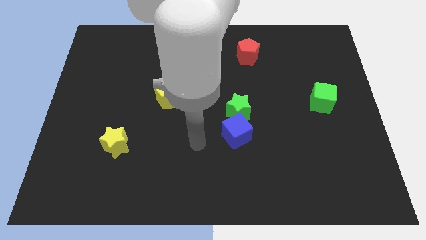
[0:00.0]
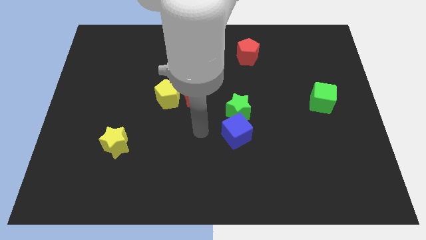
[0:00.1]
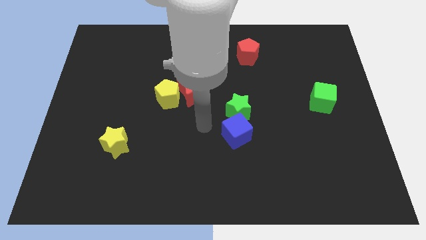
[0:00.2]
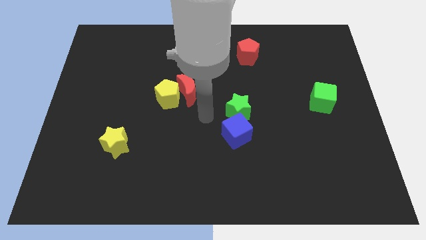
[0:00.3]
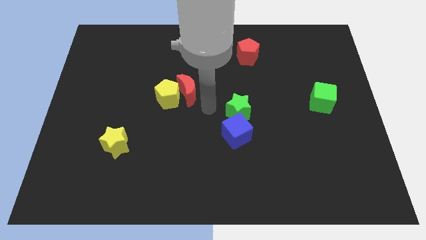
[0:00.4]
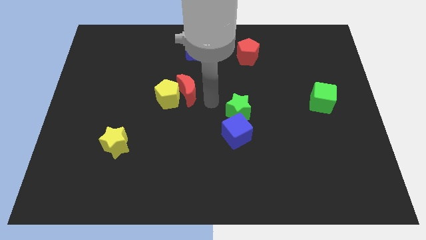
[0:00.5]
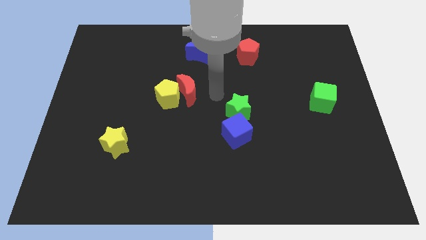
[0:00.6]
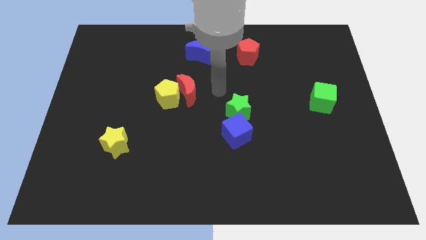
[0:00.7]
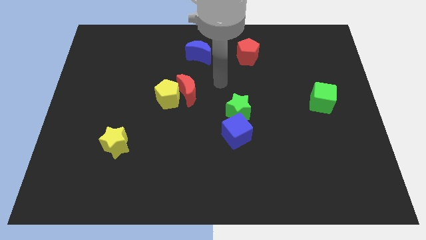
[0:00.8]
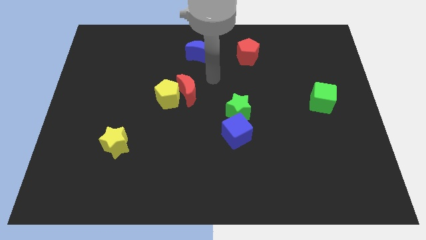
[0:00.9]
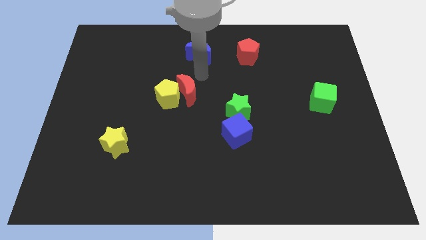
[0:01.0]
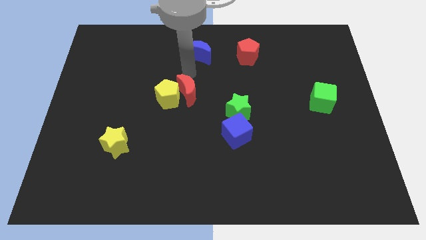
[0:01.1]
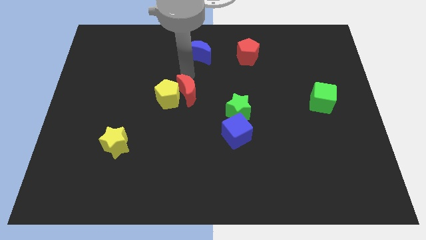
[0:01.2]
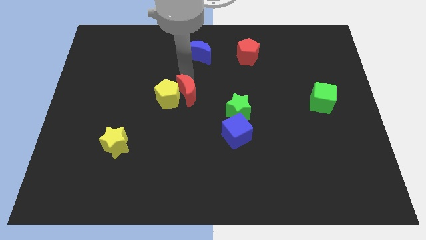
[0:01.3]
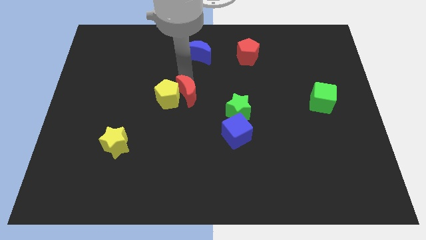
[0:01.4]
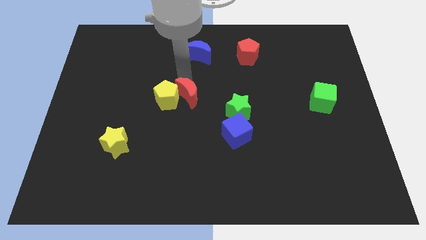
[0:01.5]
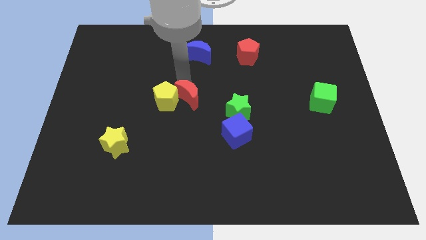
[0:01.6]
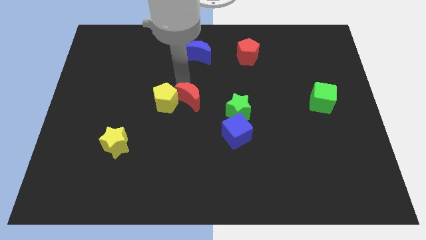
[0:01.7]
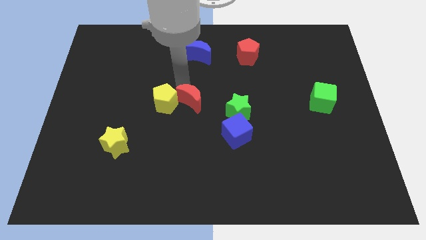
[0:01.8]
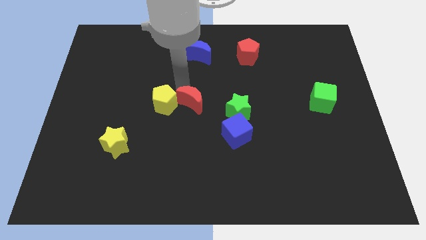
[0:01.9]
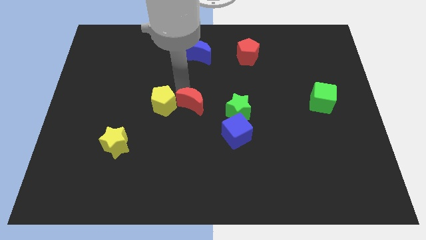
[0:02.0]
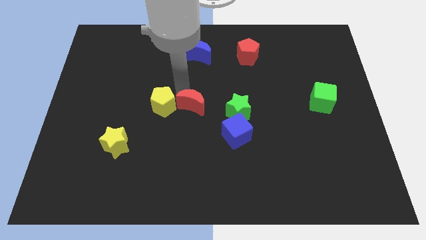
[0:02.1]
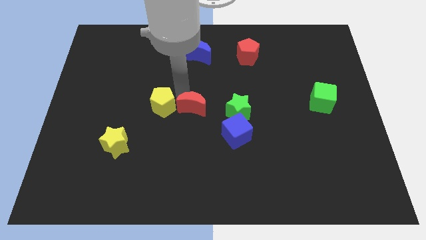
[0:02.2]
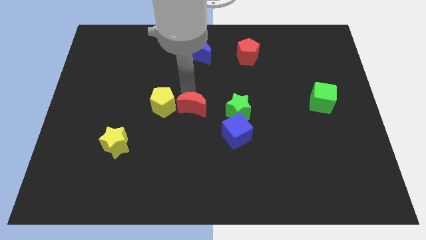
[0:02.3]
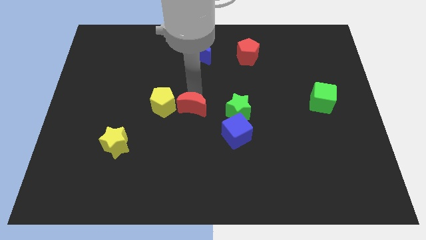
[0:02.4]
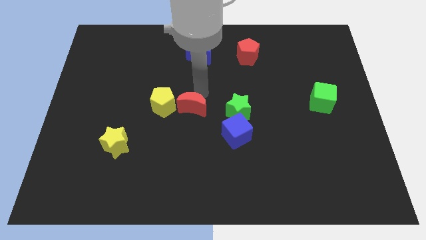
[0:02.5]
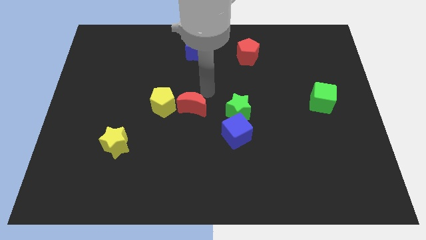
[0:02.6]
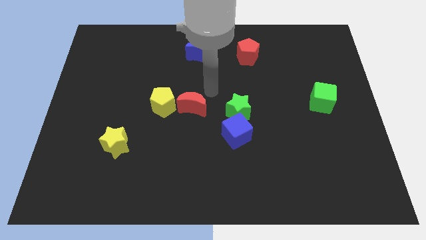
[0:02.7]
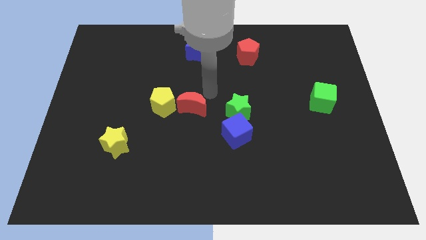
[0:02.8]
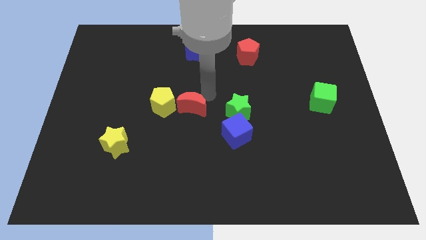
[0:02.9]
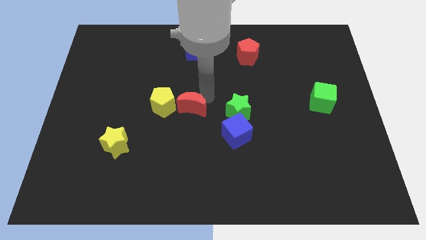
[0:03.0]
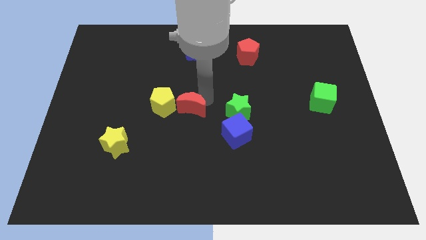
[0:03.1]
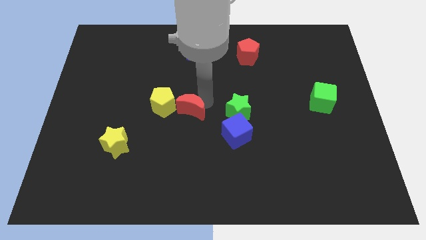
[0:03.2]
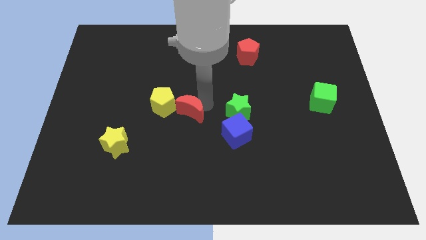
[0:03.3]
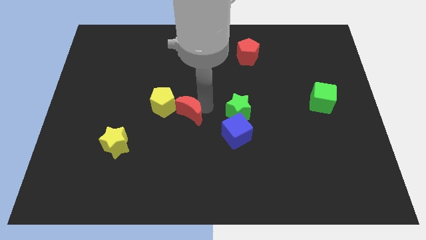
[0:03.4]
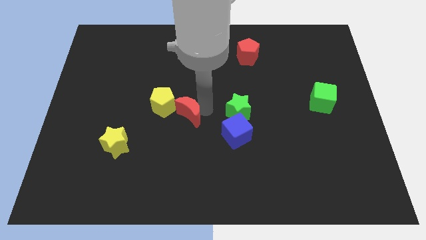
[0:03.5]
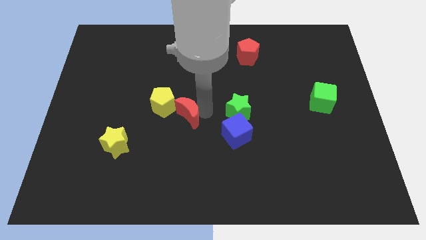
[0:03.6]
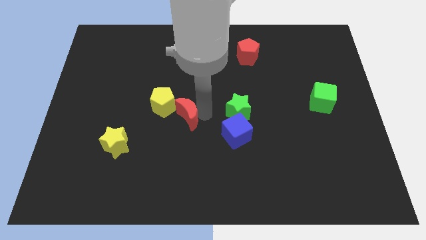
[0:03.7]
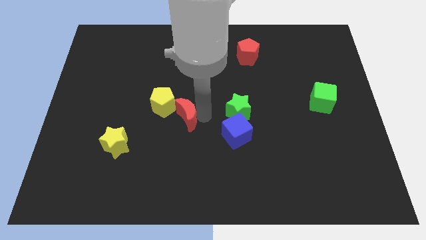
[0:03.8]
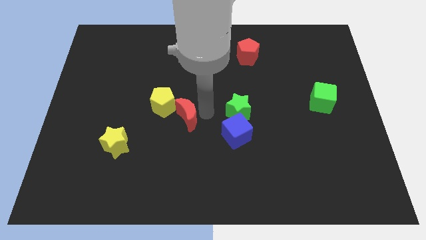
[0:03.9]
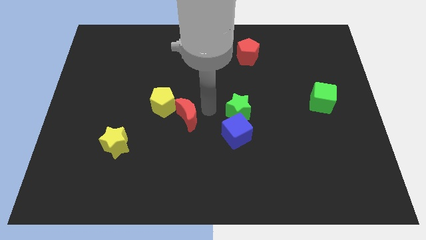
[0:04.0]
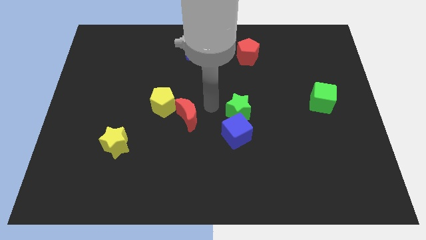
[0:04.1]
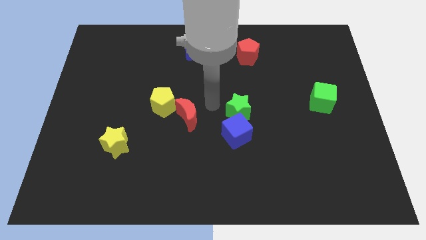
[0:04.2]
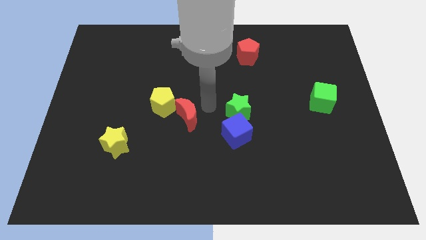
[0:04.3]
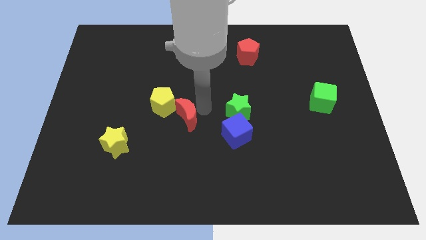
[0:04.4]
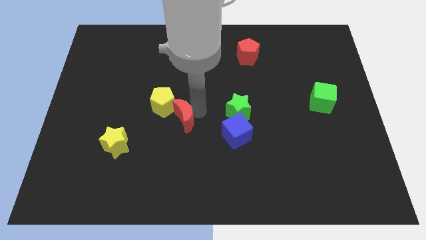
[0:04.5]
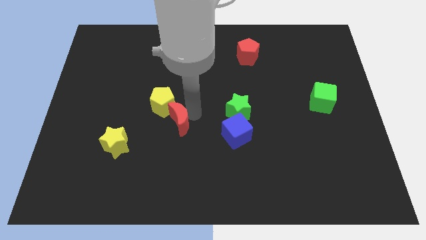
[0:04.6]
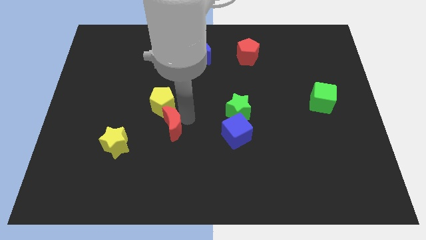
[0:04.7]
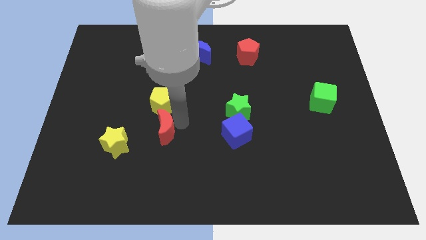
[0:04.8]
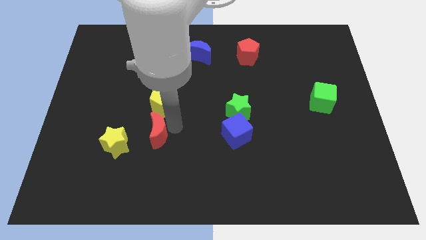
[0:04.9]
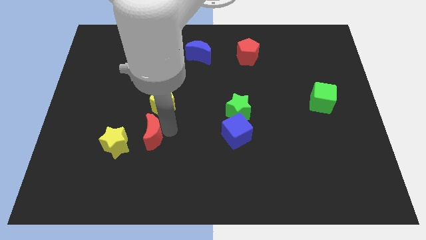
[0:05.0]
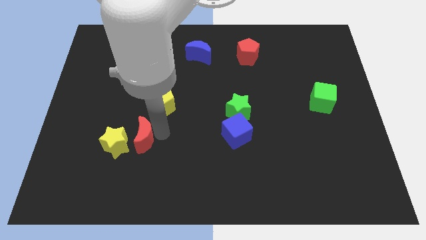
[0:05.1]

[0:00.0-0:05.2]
put the red moon to the yellow star

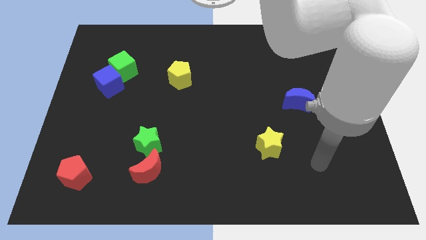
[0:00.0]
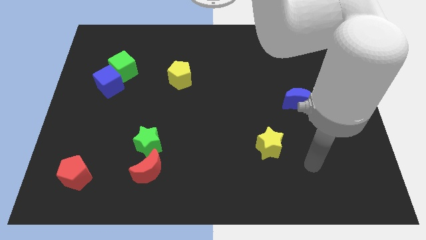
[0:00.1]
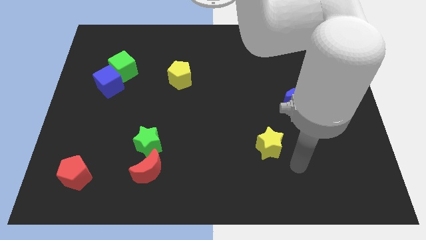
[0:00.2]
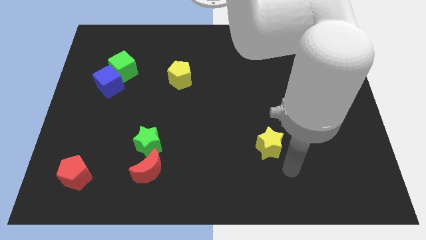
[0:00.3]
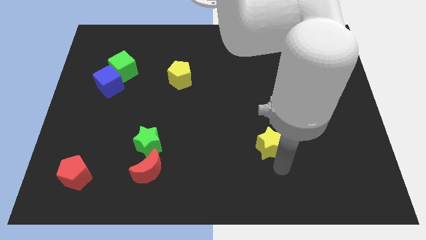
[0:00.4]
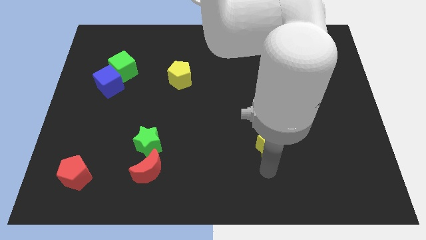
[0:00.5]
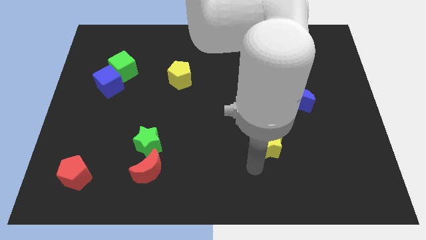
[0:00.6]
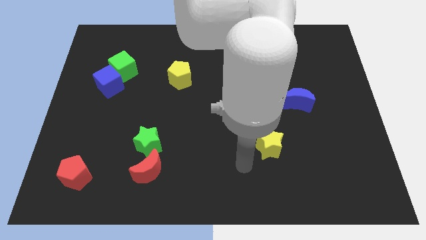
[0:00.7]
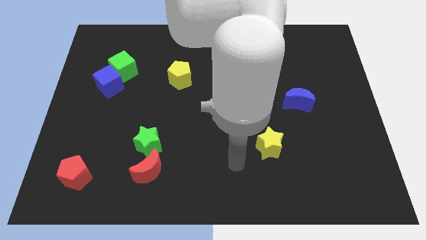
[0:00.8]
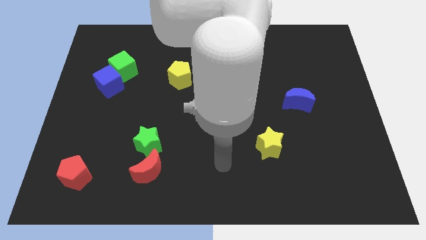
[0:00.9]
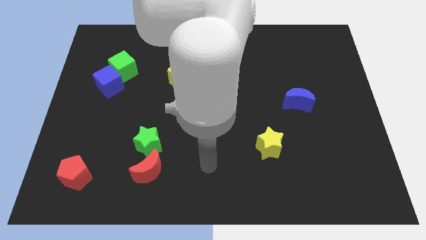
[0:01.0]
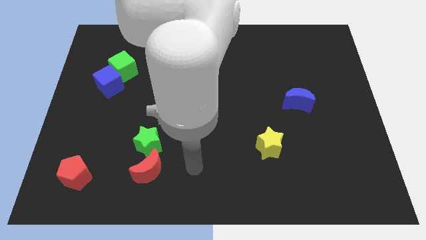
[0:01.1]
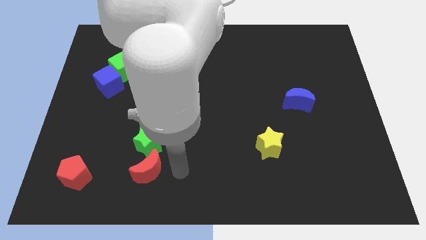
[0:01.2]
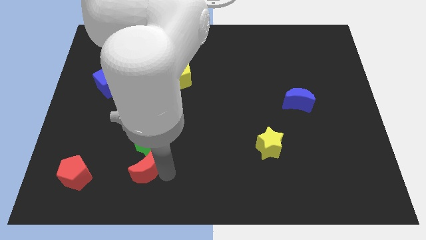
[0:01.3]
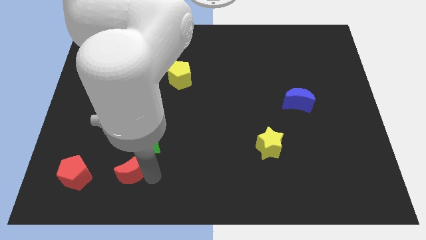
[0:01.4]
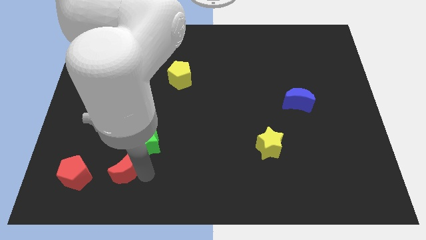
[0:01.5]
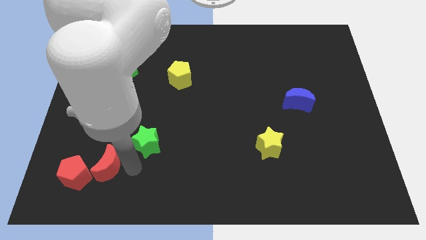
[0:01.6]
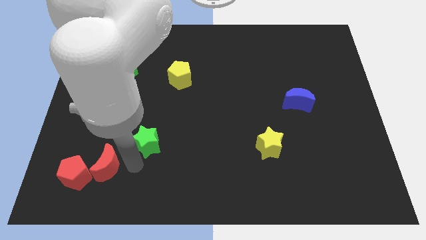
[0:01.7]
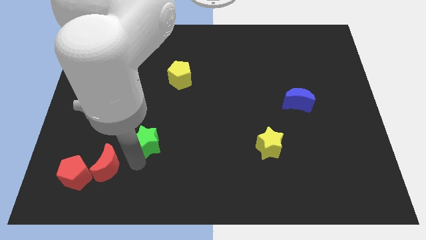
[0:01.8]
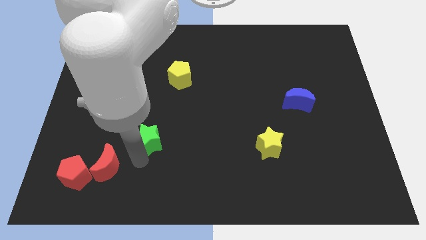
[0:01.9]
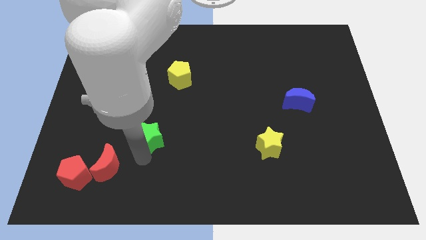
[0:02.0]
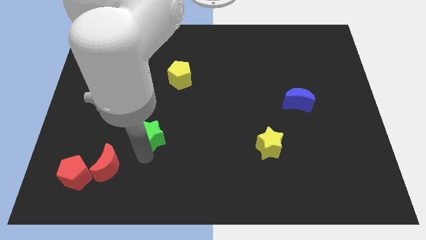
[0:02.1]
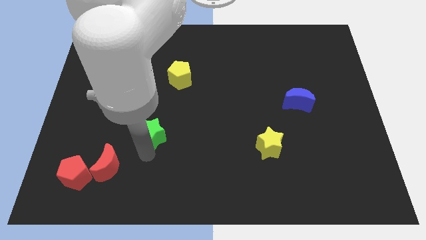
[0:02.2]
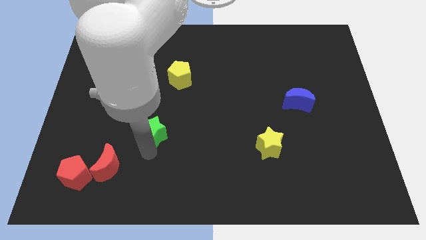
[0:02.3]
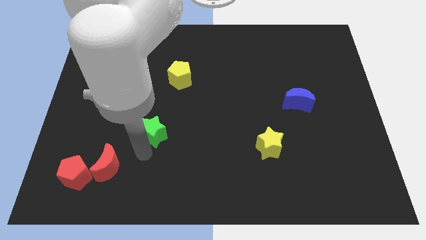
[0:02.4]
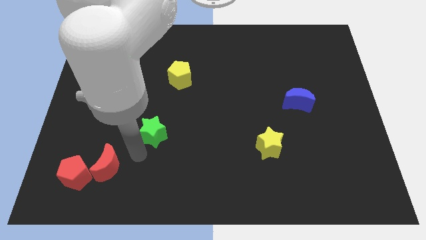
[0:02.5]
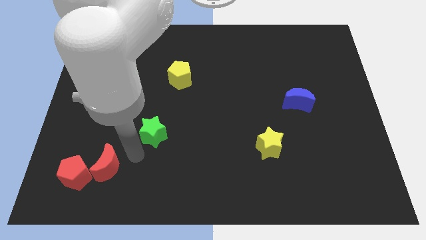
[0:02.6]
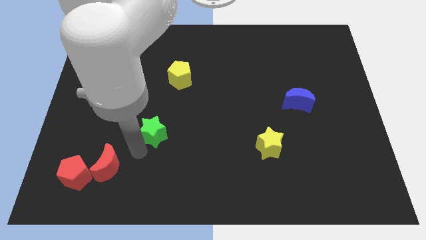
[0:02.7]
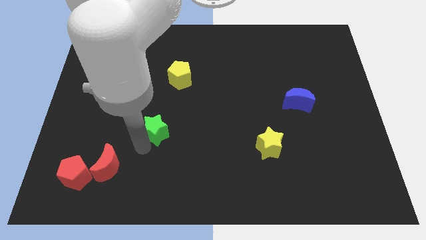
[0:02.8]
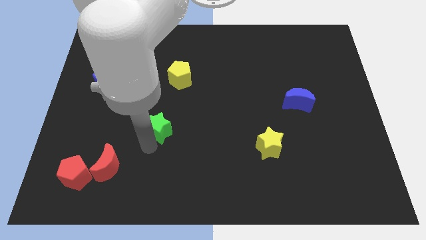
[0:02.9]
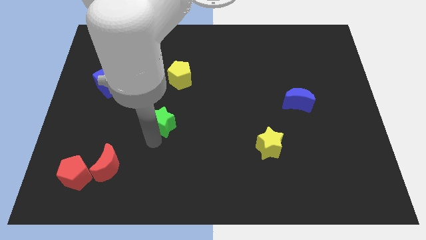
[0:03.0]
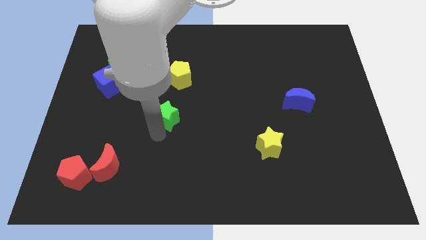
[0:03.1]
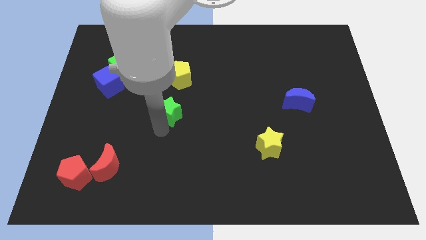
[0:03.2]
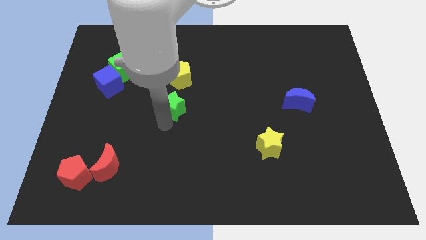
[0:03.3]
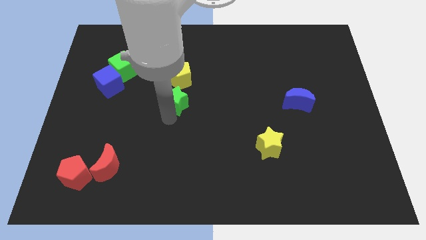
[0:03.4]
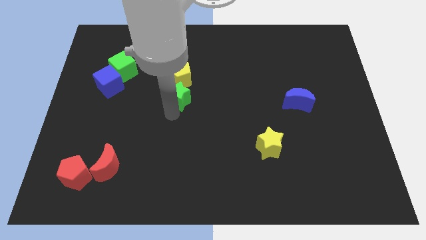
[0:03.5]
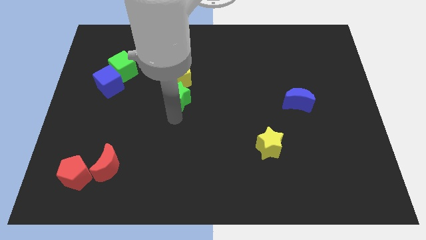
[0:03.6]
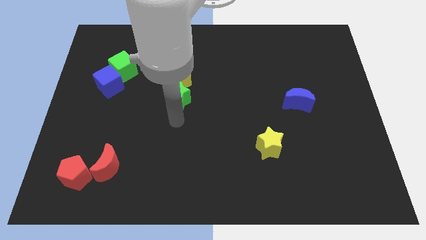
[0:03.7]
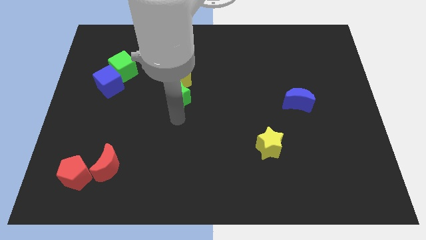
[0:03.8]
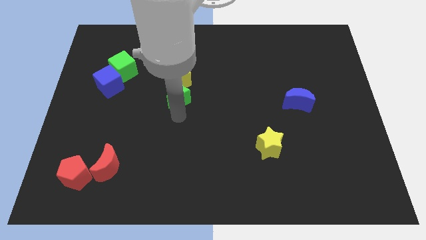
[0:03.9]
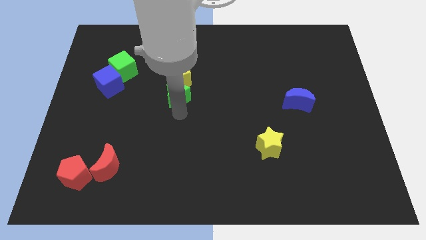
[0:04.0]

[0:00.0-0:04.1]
slide the green star towards the yellow pentagon
